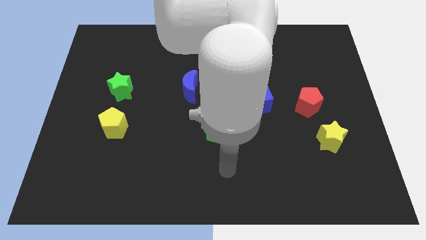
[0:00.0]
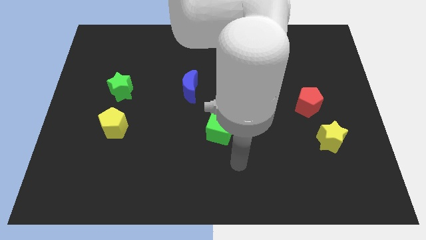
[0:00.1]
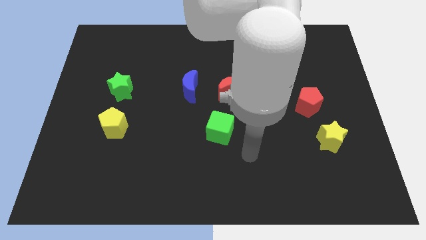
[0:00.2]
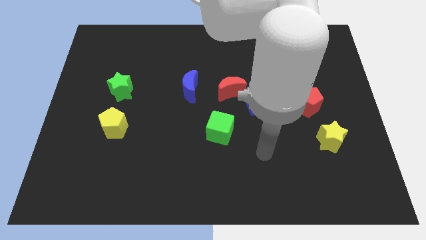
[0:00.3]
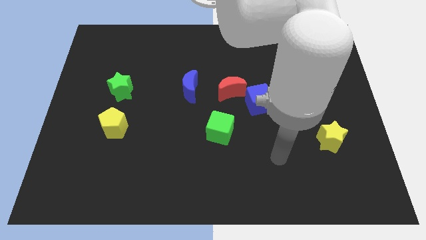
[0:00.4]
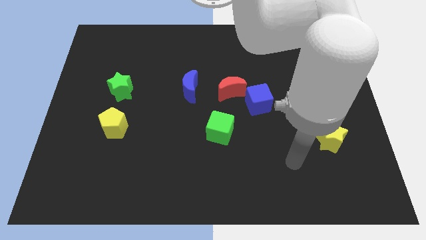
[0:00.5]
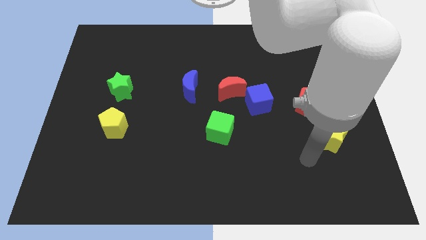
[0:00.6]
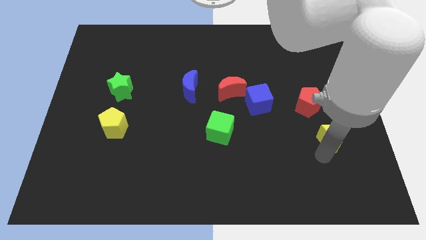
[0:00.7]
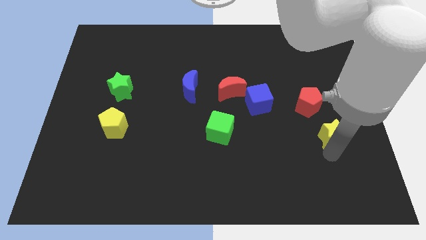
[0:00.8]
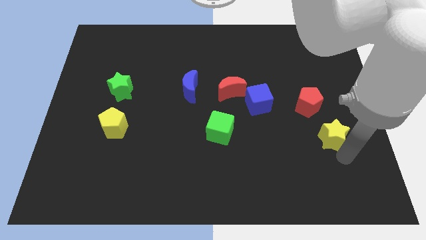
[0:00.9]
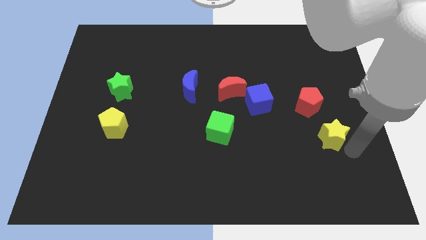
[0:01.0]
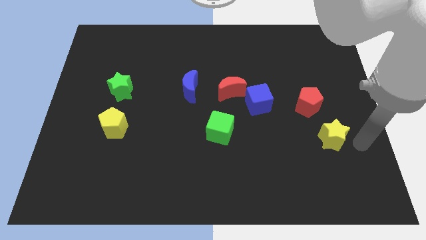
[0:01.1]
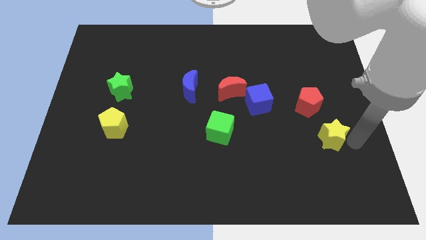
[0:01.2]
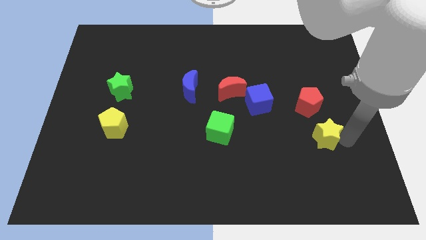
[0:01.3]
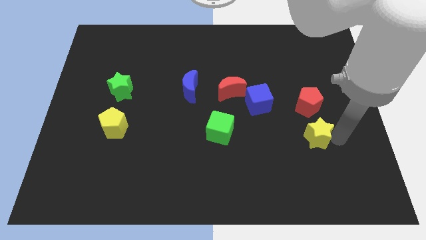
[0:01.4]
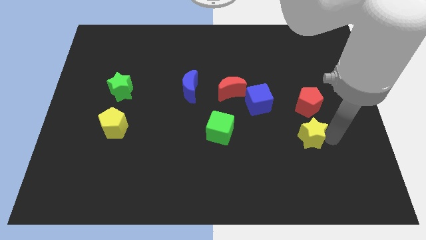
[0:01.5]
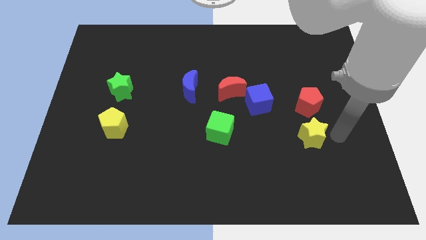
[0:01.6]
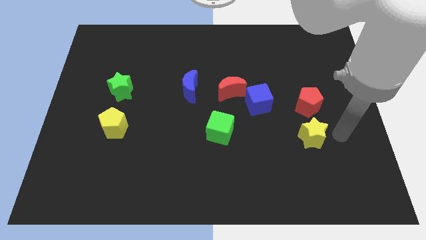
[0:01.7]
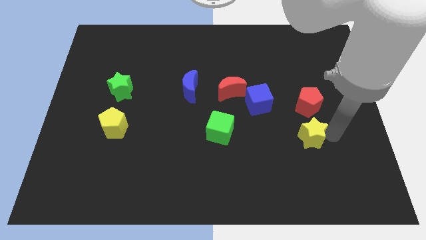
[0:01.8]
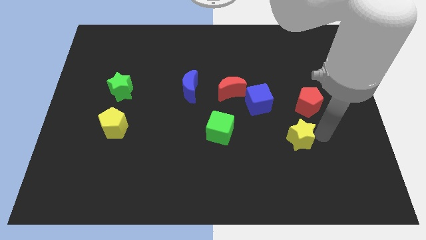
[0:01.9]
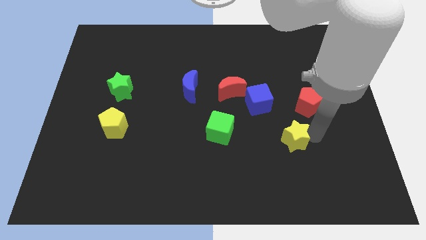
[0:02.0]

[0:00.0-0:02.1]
slightly push the yellow star to the left

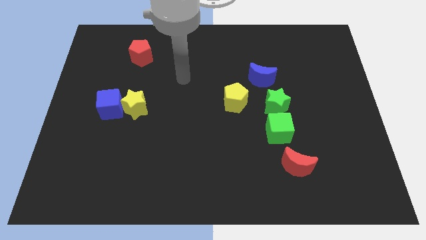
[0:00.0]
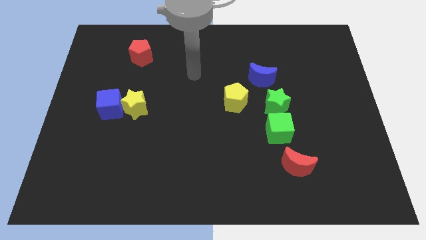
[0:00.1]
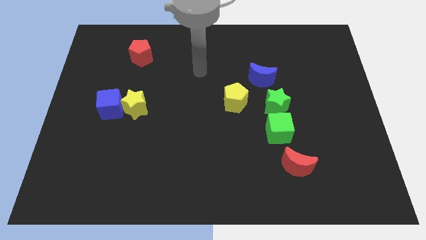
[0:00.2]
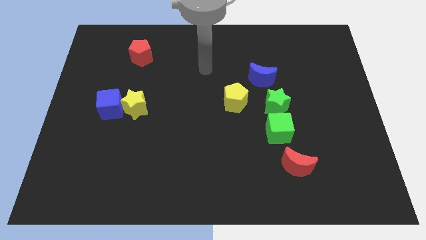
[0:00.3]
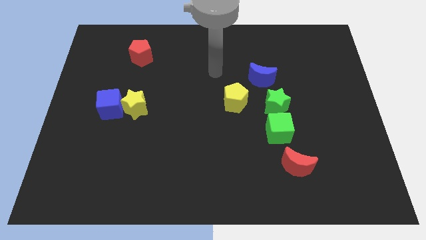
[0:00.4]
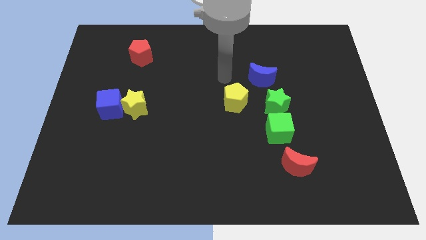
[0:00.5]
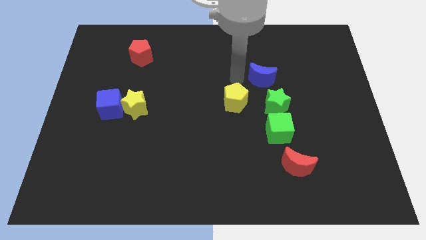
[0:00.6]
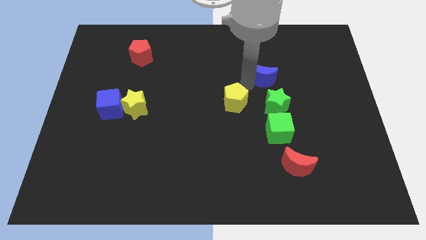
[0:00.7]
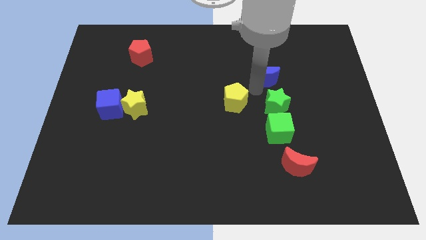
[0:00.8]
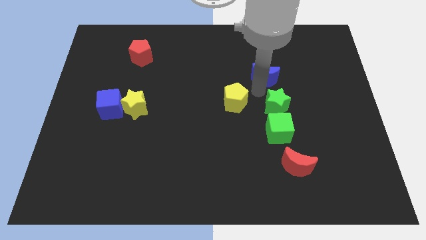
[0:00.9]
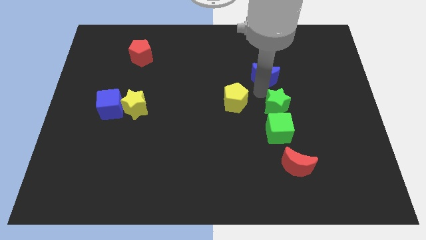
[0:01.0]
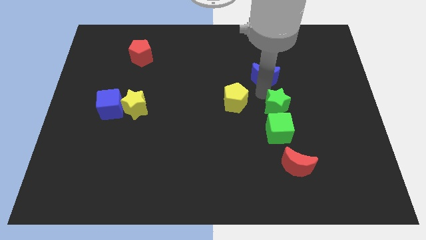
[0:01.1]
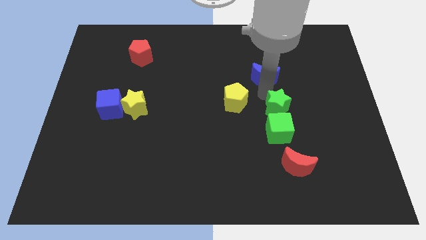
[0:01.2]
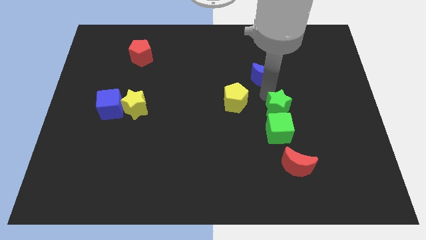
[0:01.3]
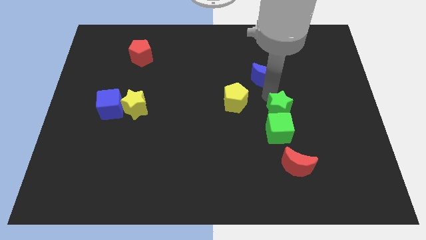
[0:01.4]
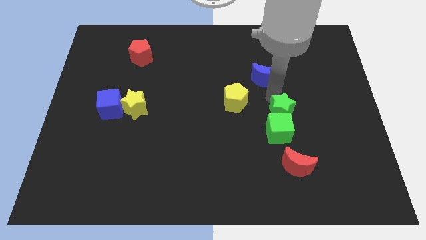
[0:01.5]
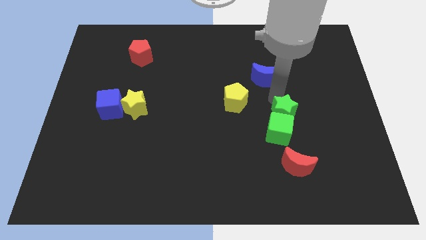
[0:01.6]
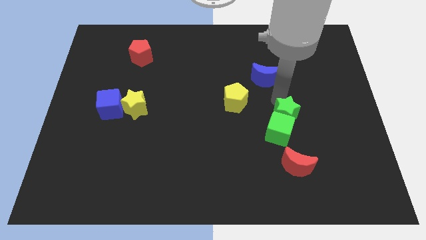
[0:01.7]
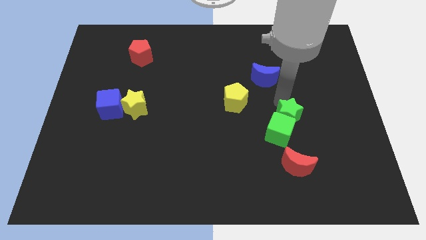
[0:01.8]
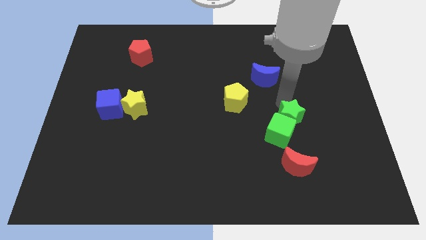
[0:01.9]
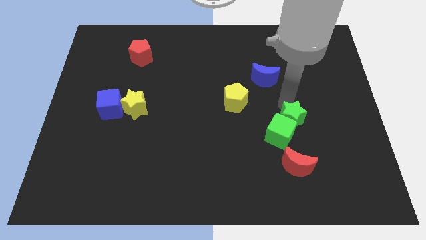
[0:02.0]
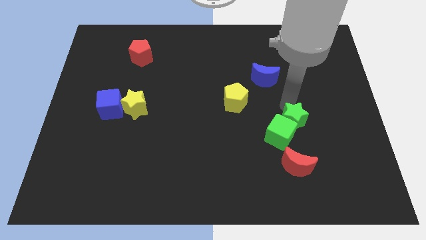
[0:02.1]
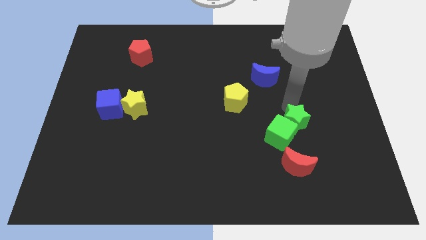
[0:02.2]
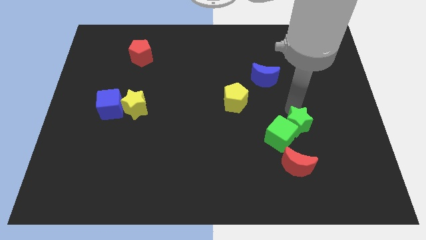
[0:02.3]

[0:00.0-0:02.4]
slightly slide the green star downwards and to the right

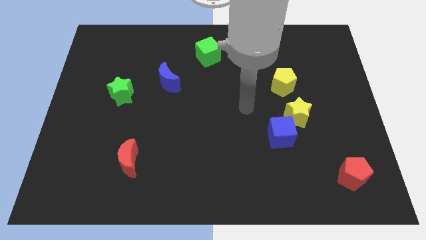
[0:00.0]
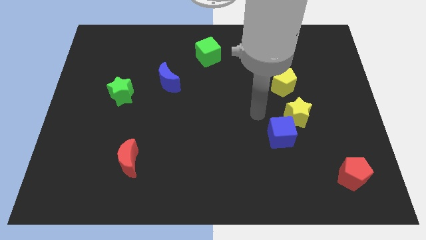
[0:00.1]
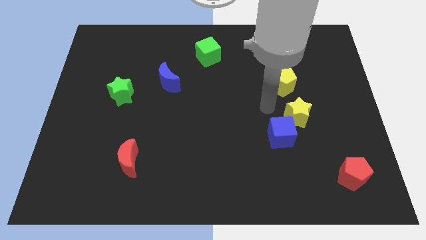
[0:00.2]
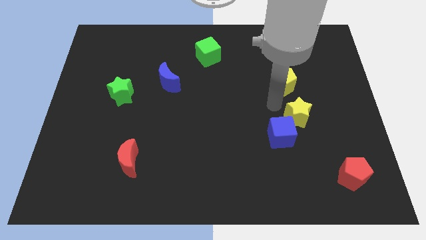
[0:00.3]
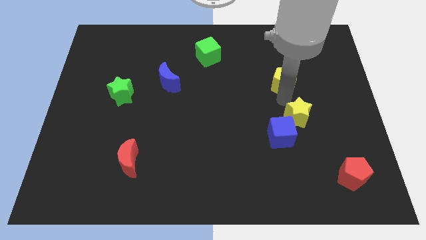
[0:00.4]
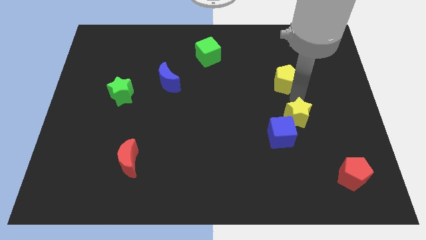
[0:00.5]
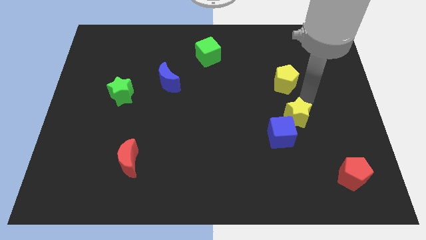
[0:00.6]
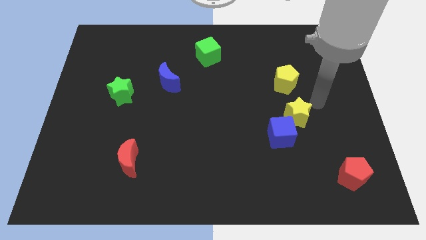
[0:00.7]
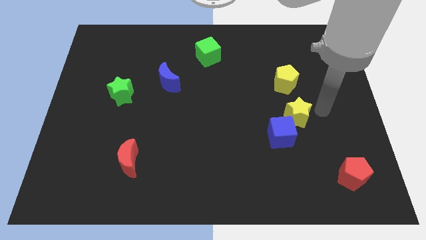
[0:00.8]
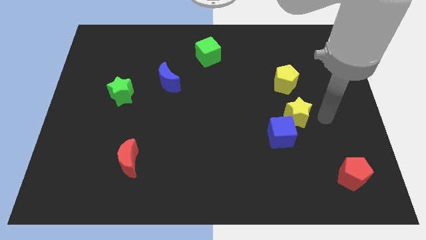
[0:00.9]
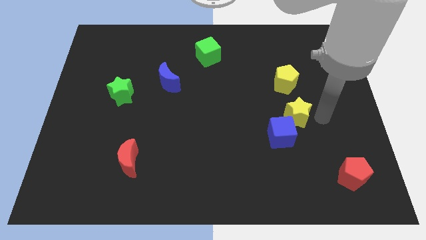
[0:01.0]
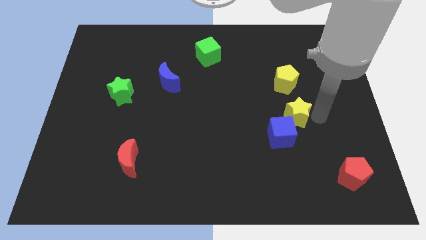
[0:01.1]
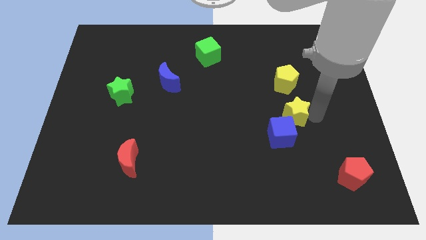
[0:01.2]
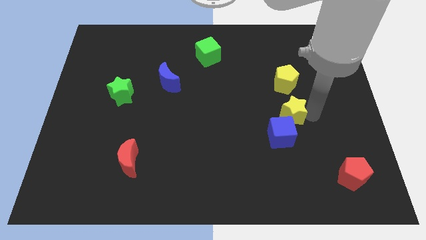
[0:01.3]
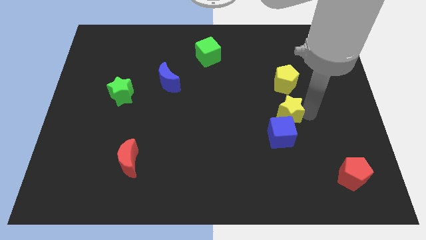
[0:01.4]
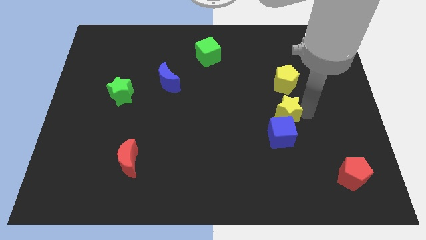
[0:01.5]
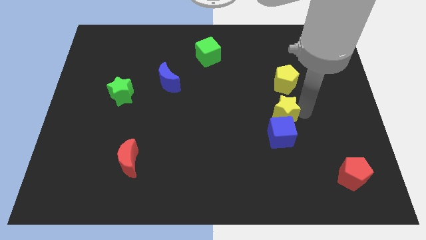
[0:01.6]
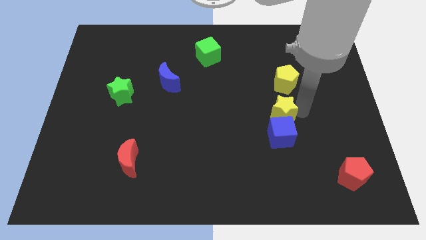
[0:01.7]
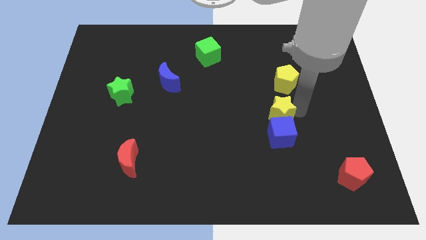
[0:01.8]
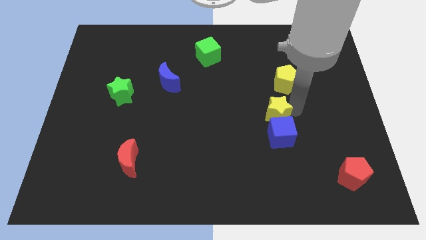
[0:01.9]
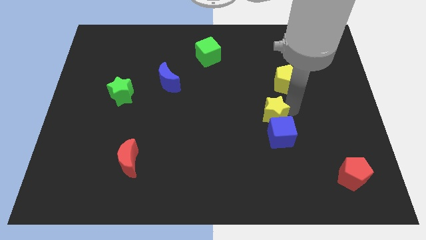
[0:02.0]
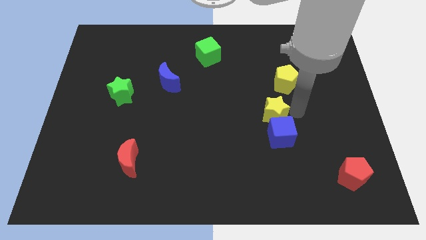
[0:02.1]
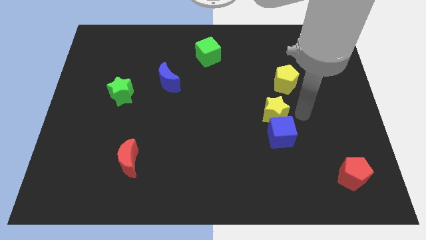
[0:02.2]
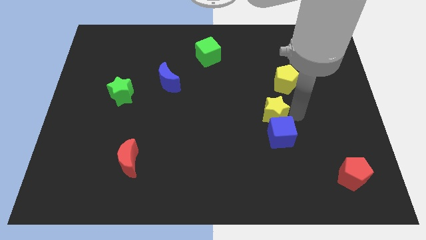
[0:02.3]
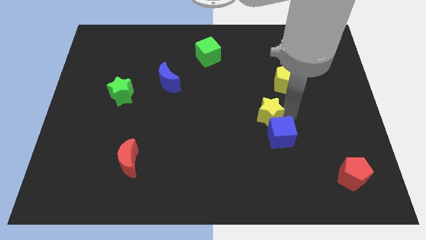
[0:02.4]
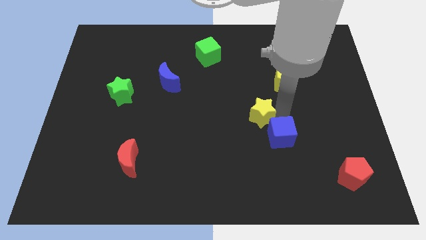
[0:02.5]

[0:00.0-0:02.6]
push the yellow star slightly to the left

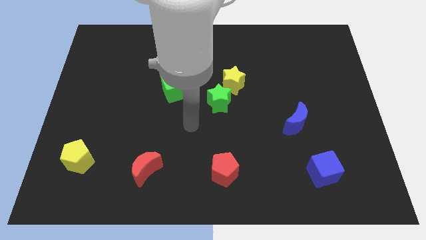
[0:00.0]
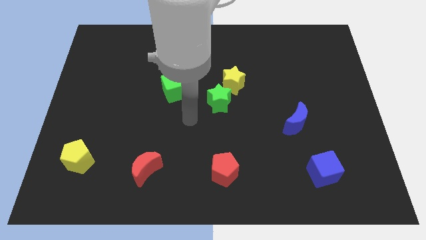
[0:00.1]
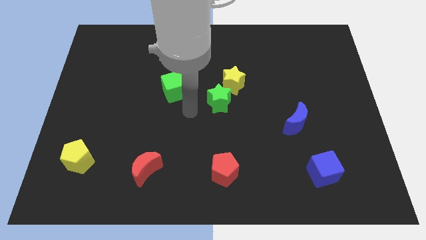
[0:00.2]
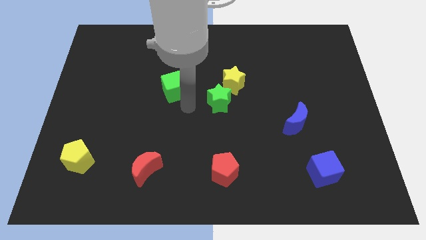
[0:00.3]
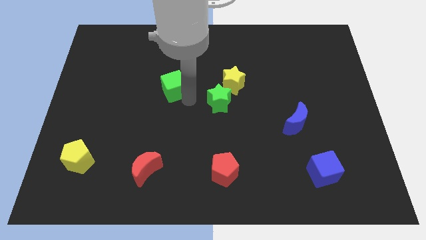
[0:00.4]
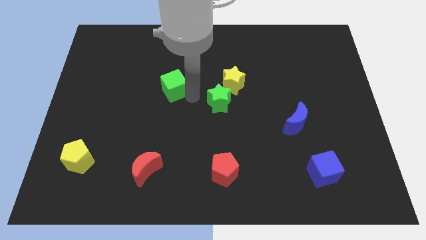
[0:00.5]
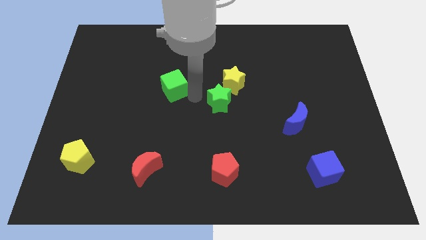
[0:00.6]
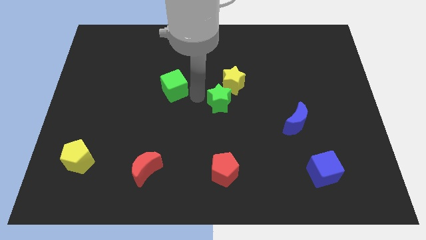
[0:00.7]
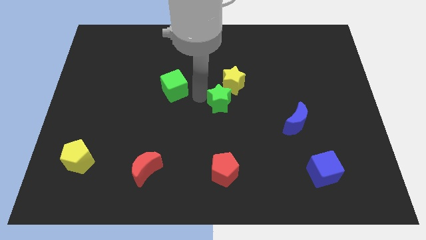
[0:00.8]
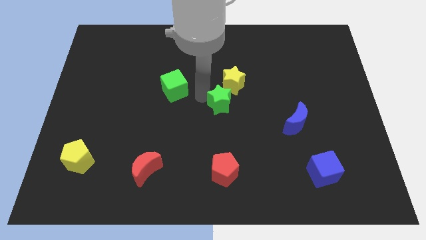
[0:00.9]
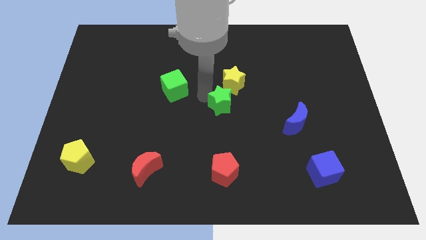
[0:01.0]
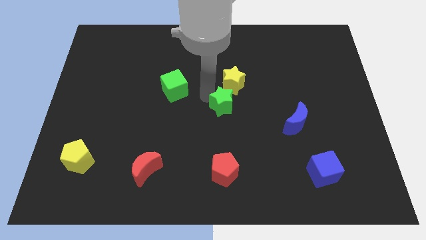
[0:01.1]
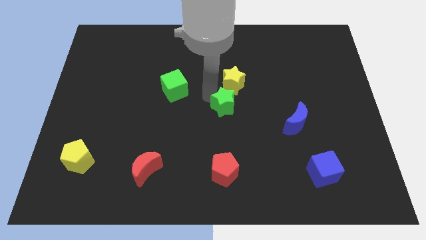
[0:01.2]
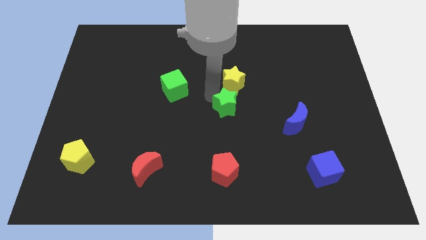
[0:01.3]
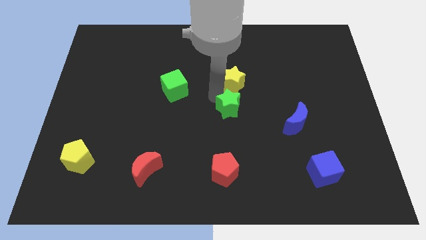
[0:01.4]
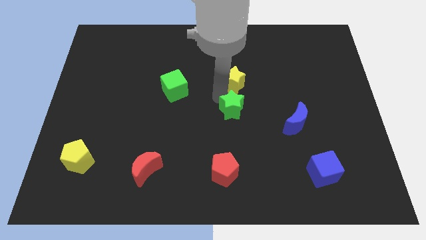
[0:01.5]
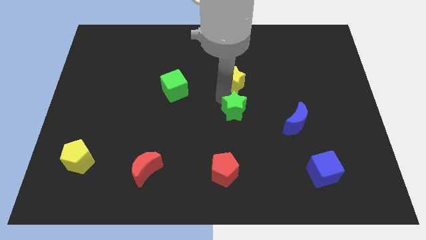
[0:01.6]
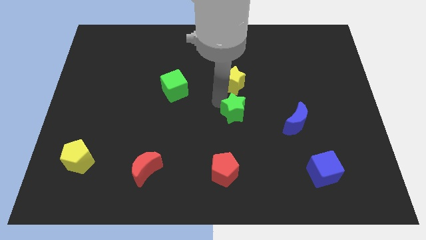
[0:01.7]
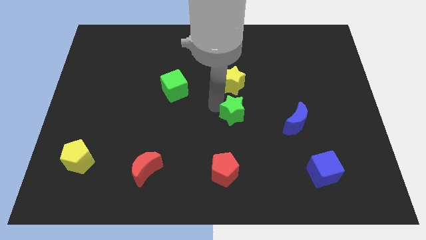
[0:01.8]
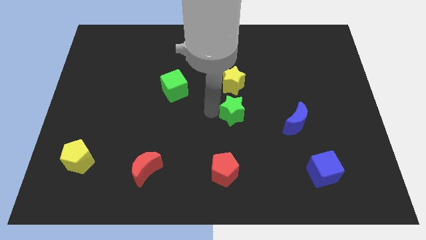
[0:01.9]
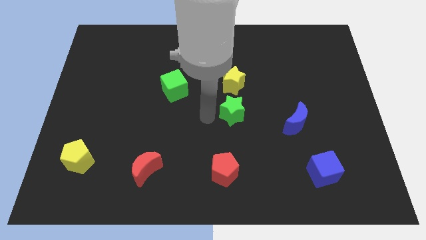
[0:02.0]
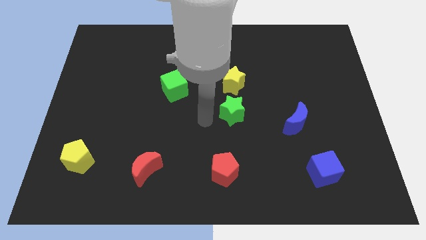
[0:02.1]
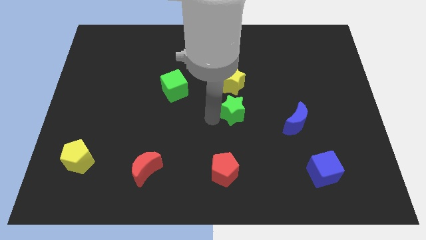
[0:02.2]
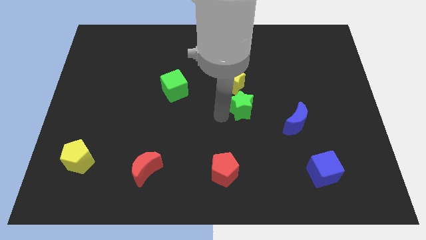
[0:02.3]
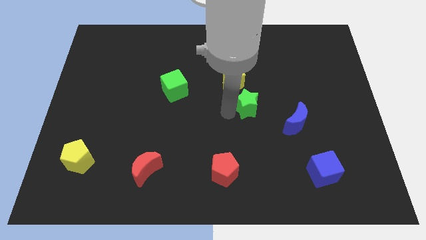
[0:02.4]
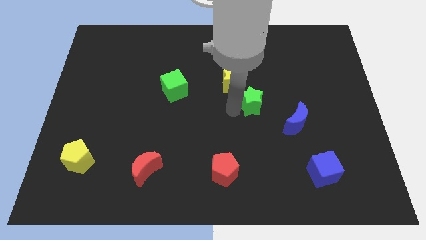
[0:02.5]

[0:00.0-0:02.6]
slightly push the green star right
